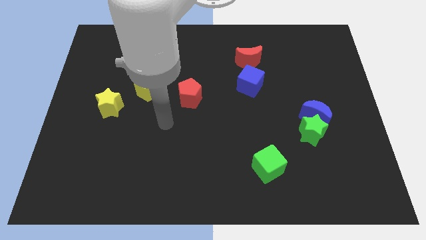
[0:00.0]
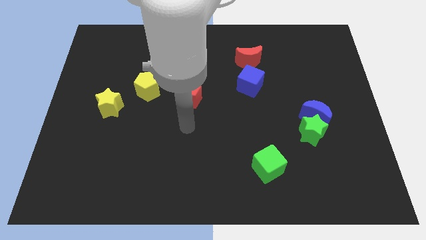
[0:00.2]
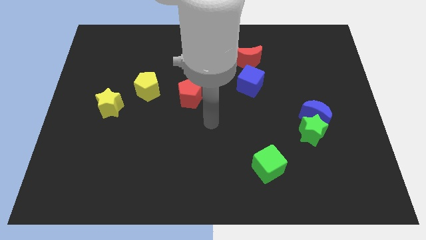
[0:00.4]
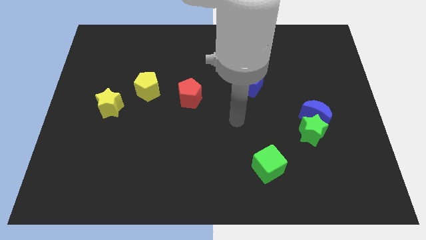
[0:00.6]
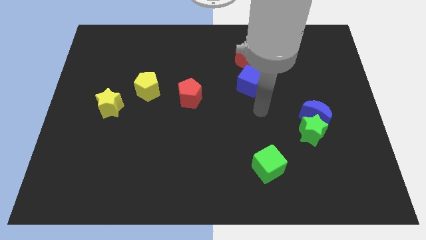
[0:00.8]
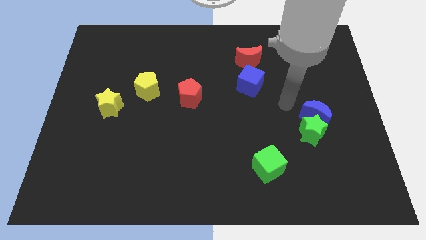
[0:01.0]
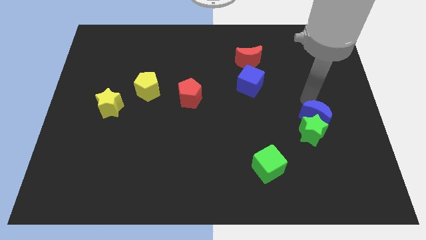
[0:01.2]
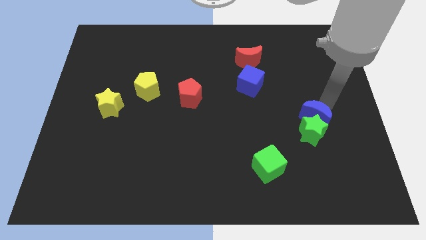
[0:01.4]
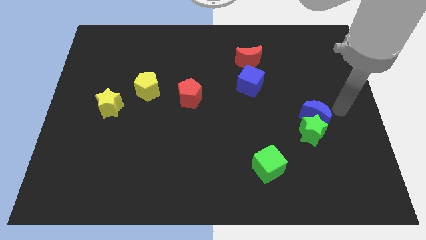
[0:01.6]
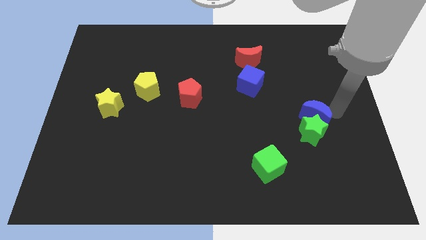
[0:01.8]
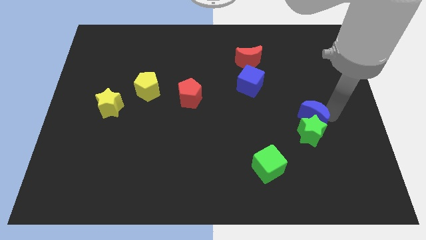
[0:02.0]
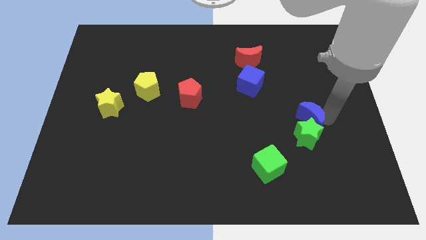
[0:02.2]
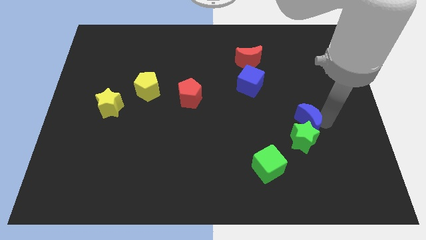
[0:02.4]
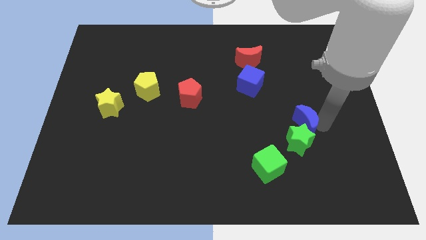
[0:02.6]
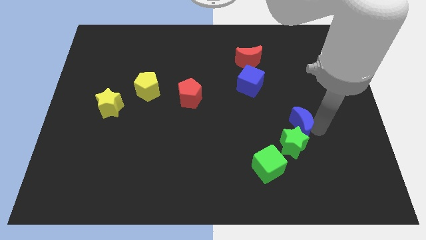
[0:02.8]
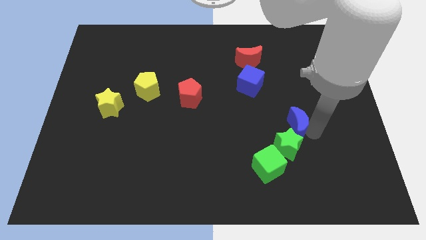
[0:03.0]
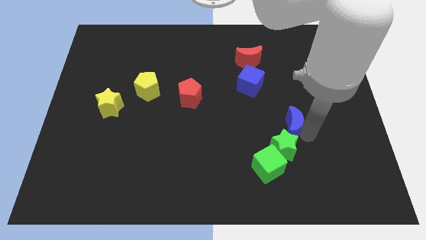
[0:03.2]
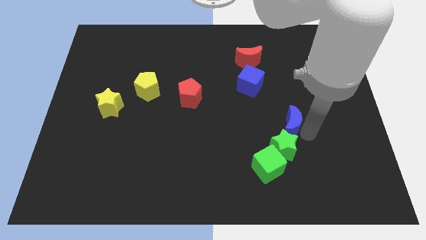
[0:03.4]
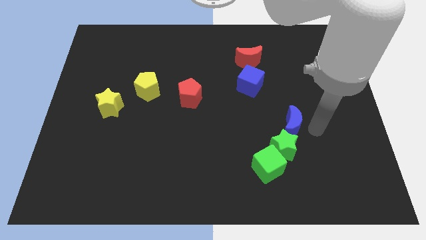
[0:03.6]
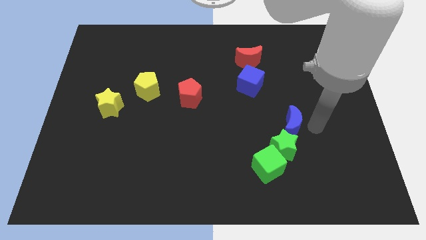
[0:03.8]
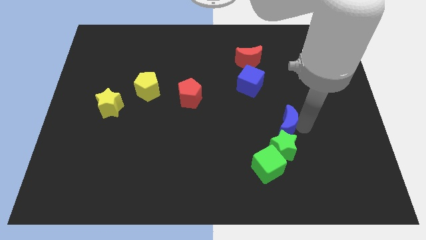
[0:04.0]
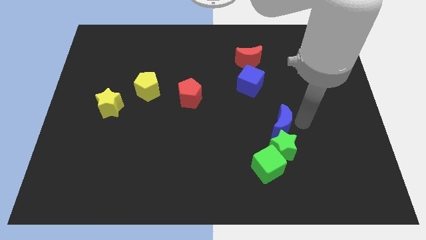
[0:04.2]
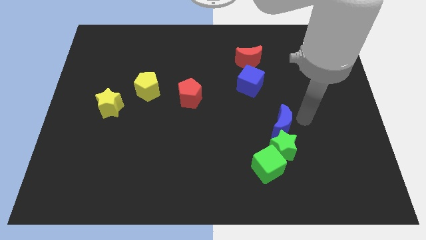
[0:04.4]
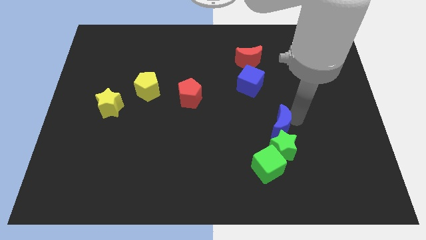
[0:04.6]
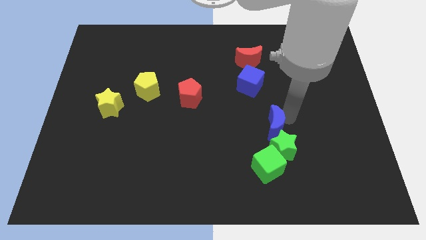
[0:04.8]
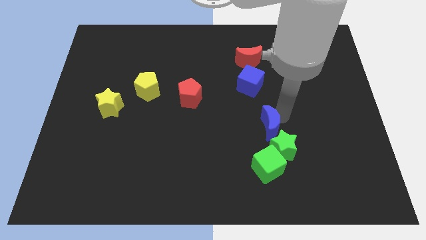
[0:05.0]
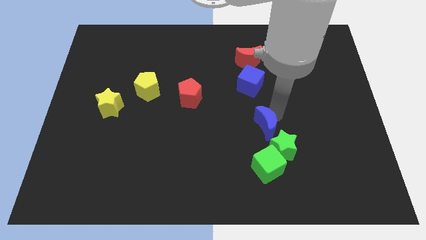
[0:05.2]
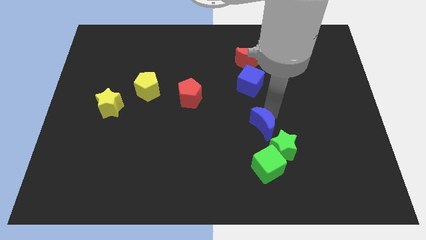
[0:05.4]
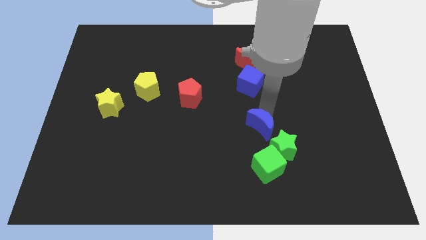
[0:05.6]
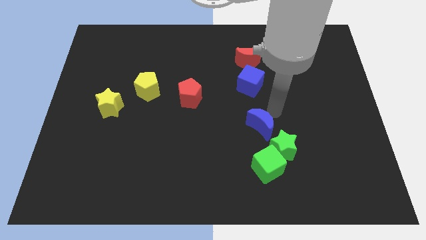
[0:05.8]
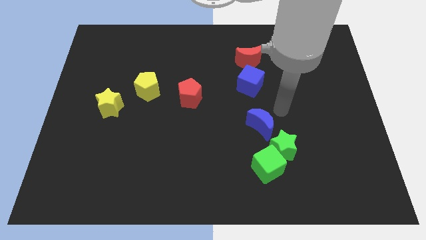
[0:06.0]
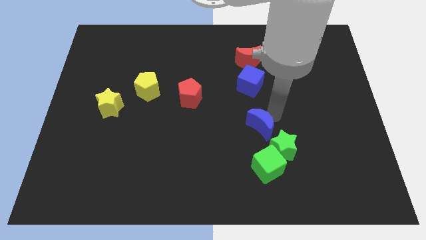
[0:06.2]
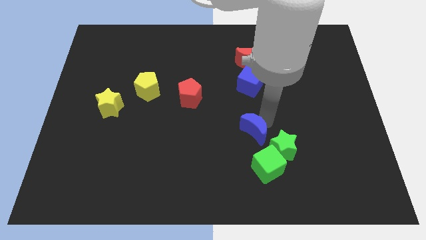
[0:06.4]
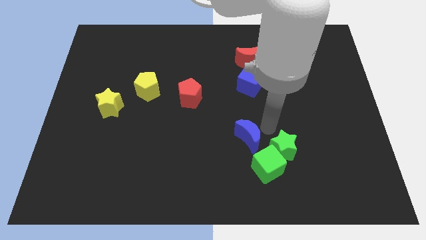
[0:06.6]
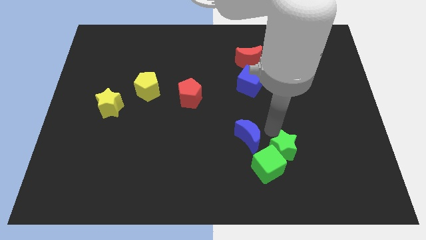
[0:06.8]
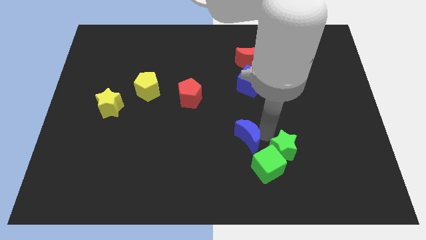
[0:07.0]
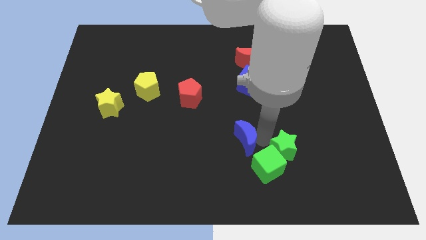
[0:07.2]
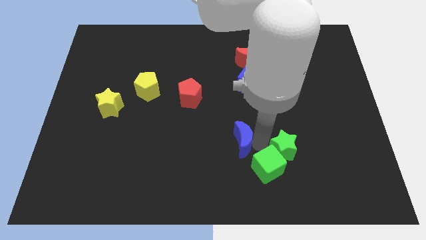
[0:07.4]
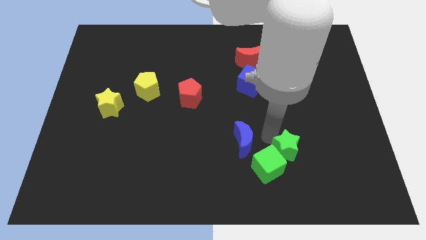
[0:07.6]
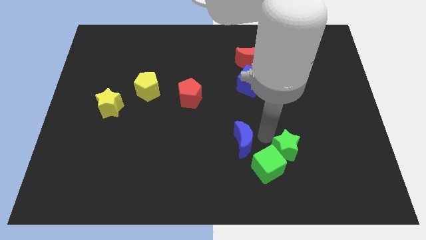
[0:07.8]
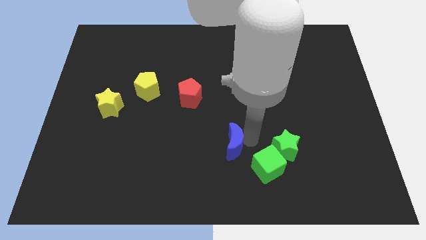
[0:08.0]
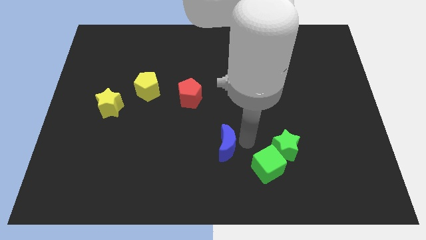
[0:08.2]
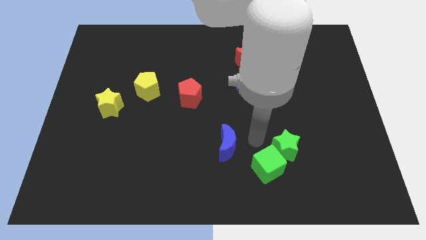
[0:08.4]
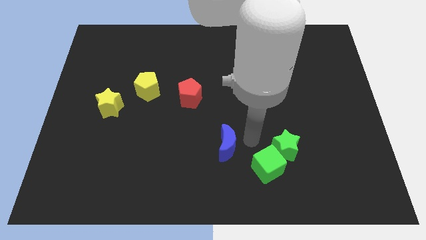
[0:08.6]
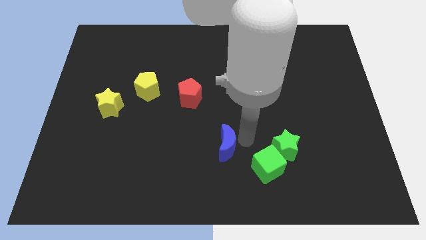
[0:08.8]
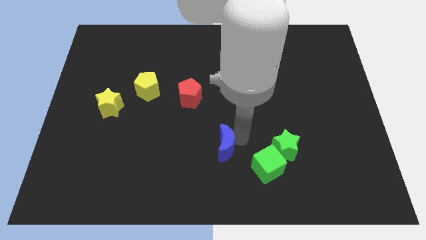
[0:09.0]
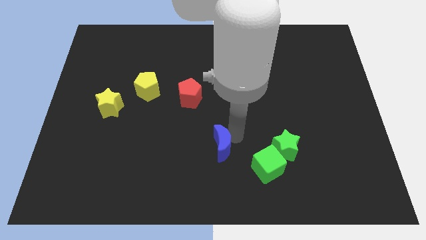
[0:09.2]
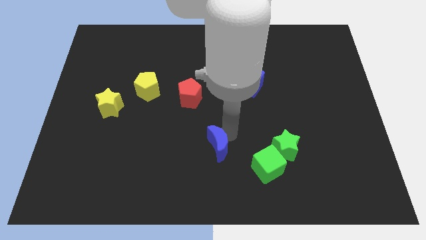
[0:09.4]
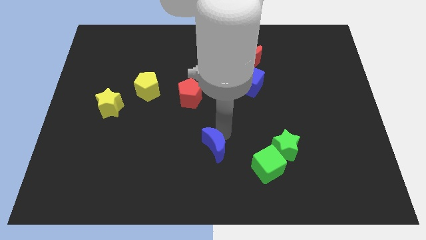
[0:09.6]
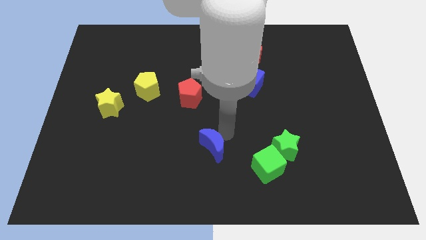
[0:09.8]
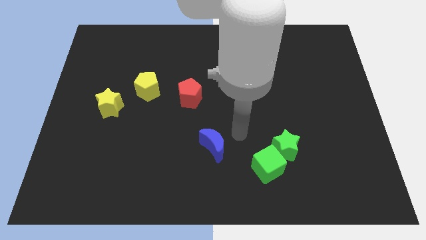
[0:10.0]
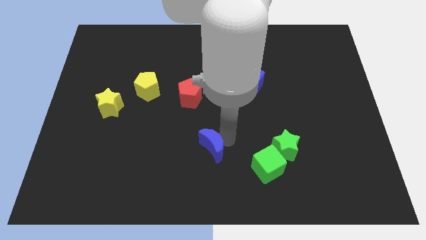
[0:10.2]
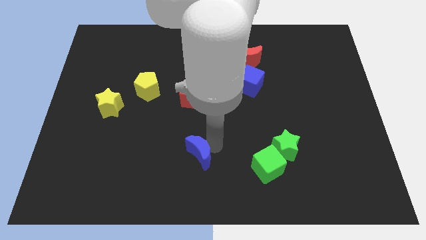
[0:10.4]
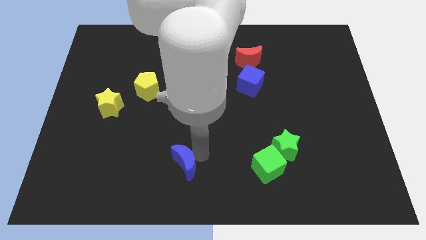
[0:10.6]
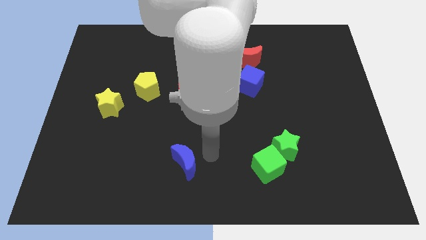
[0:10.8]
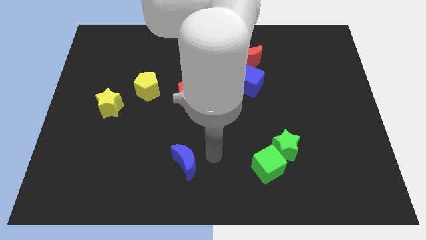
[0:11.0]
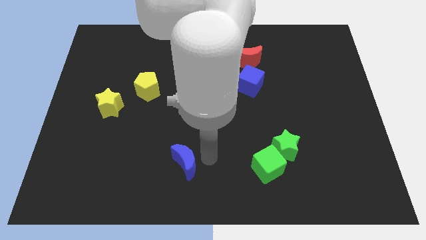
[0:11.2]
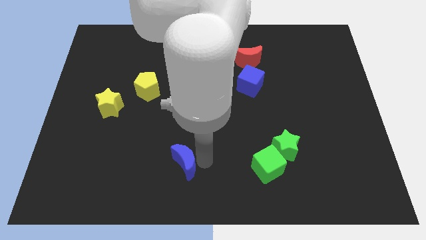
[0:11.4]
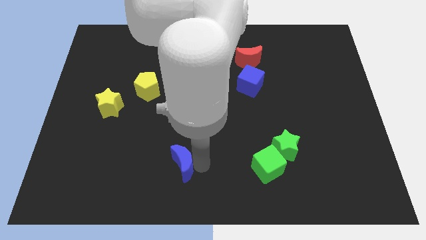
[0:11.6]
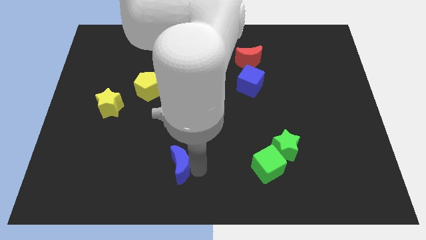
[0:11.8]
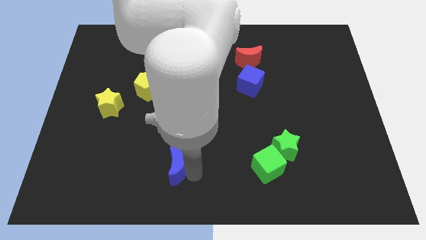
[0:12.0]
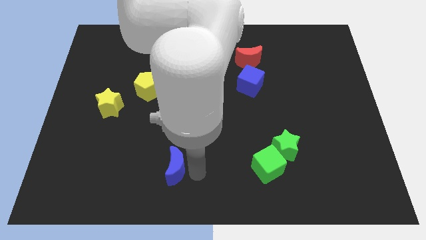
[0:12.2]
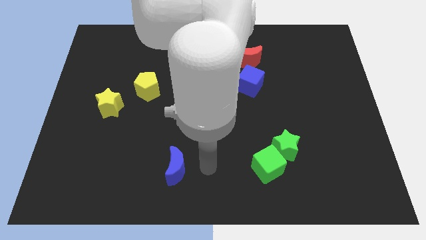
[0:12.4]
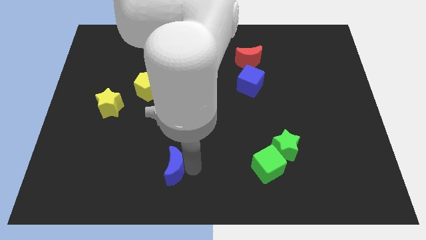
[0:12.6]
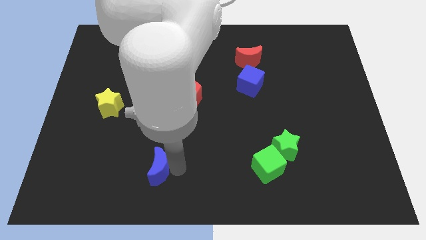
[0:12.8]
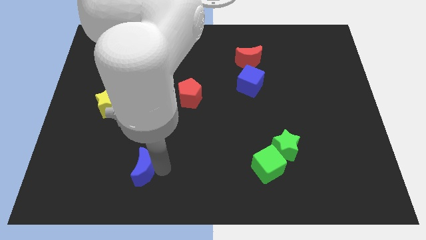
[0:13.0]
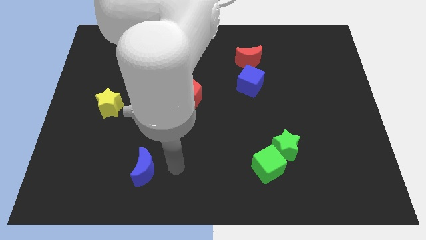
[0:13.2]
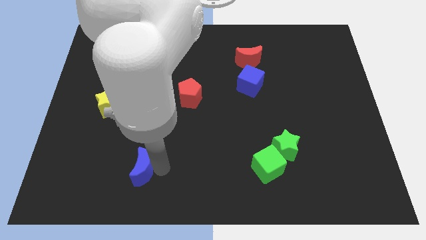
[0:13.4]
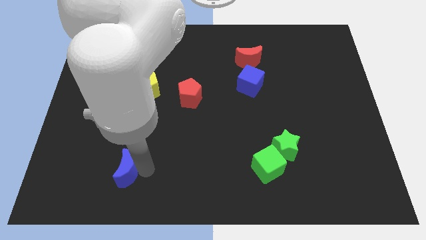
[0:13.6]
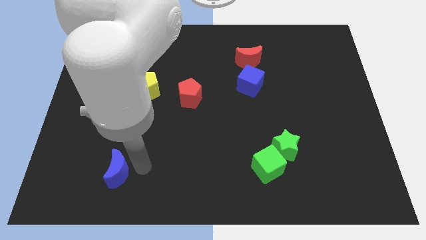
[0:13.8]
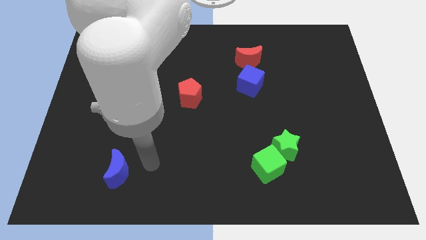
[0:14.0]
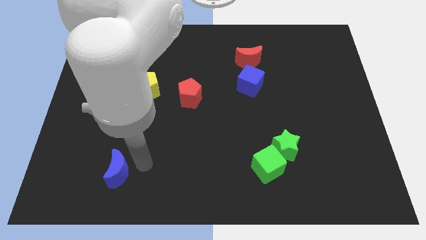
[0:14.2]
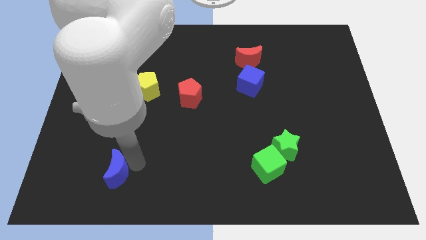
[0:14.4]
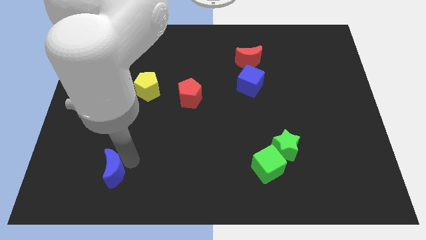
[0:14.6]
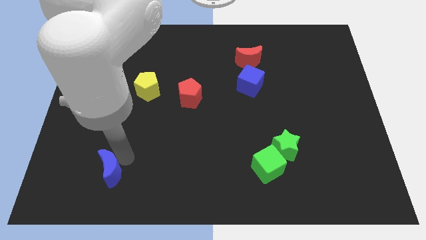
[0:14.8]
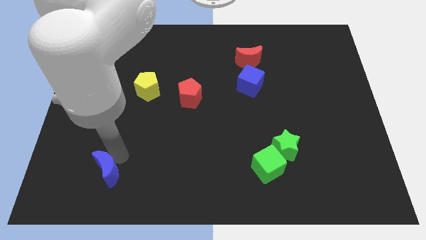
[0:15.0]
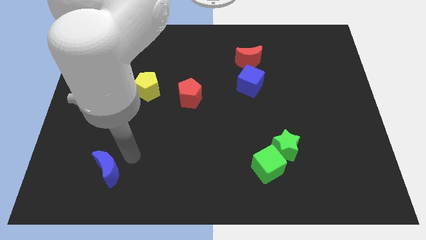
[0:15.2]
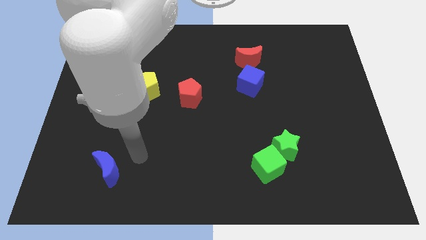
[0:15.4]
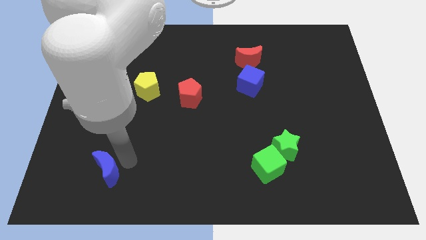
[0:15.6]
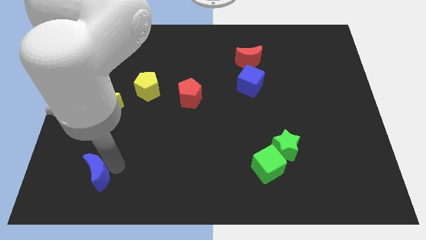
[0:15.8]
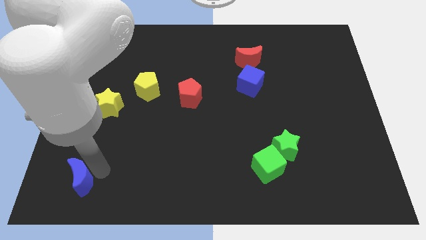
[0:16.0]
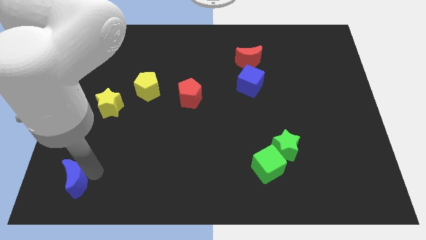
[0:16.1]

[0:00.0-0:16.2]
move the blue moon to the lower left corner
